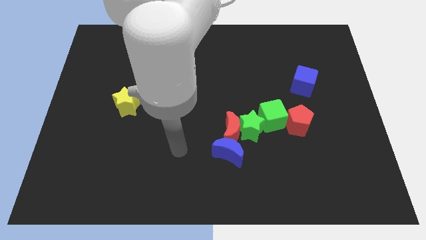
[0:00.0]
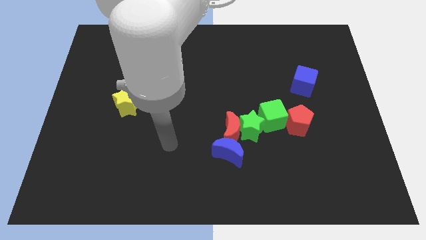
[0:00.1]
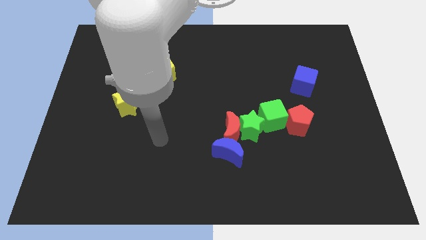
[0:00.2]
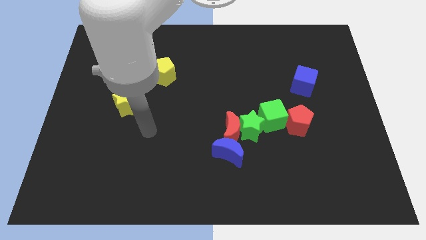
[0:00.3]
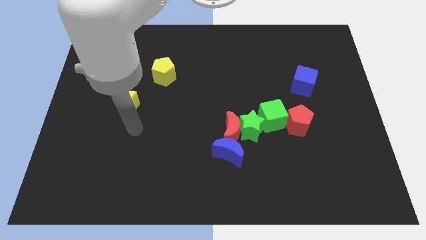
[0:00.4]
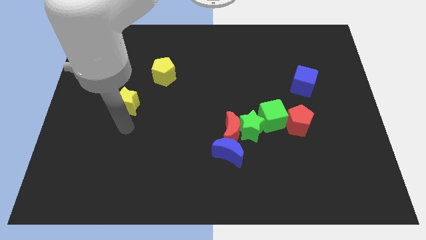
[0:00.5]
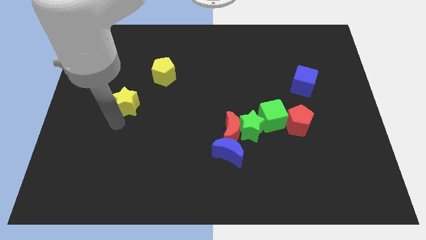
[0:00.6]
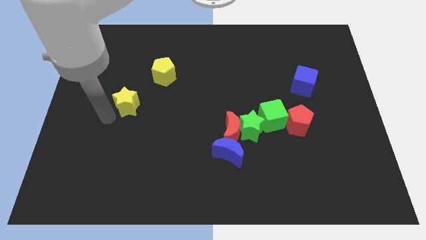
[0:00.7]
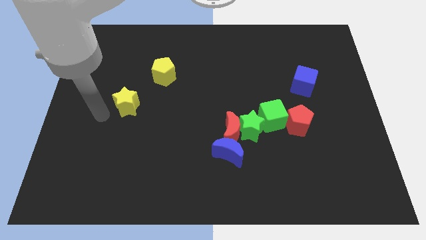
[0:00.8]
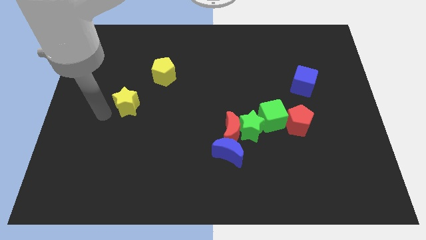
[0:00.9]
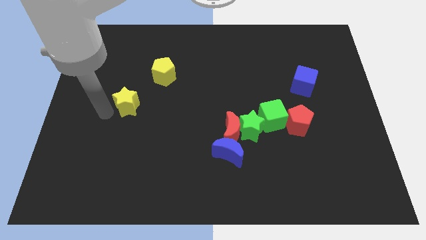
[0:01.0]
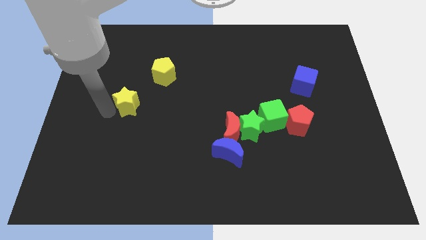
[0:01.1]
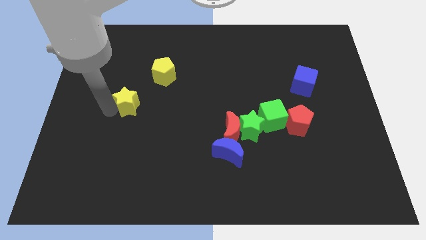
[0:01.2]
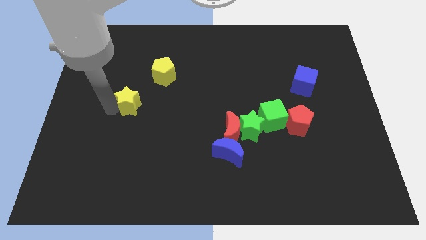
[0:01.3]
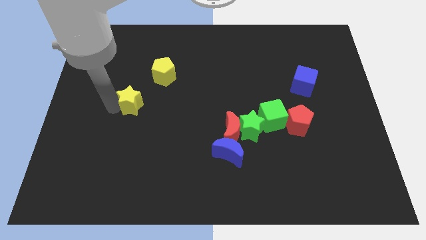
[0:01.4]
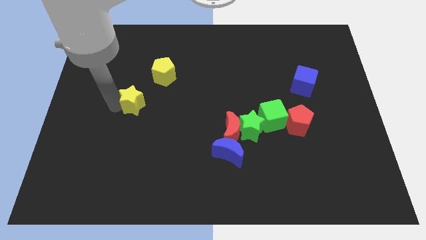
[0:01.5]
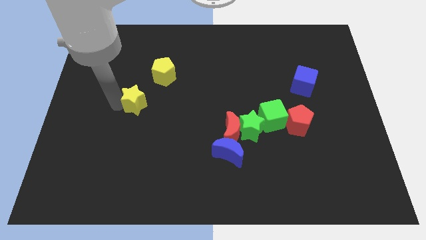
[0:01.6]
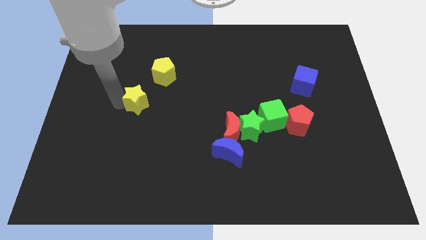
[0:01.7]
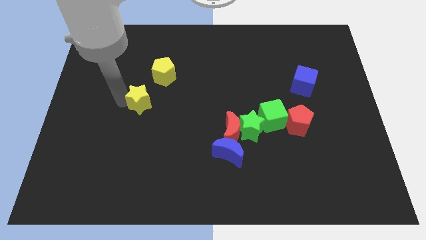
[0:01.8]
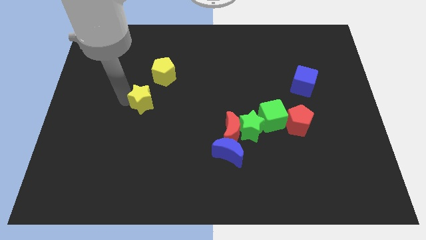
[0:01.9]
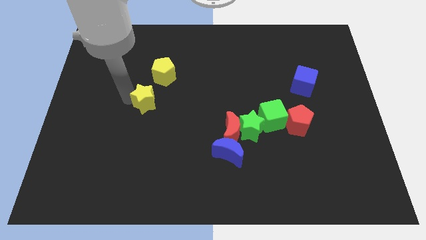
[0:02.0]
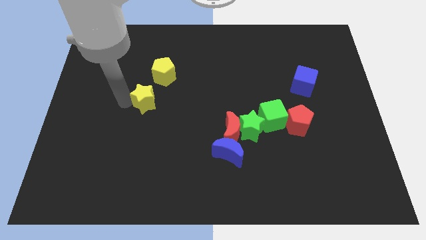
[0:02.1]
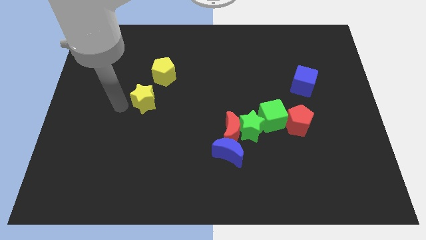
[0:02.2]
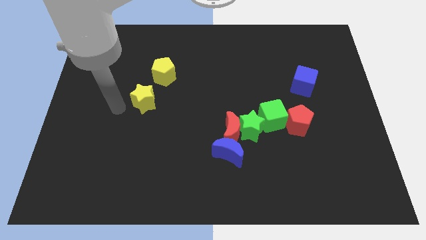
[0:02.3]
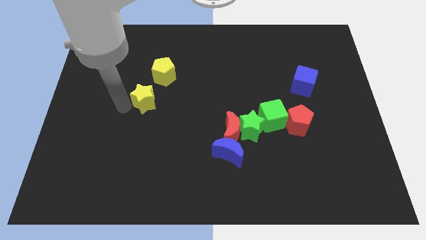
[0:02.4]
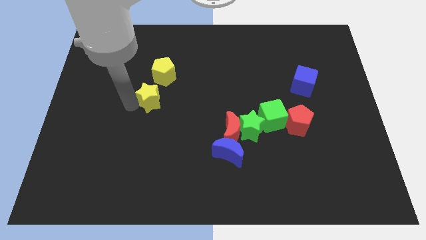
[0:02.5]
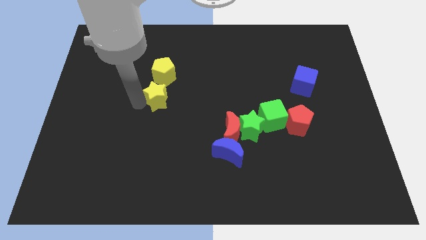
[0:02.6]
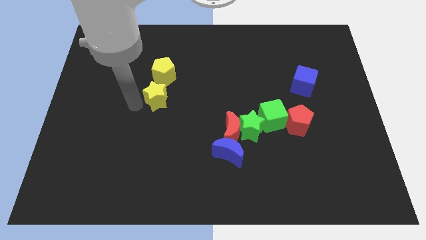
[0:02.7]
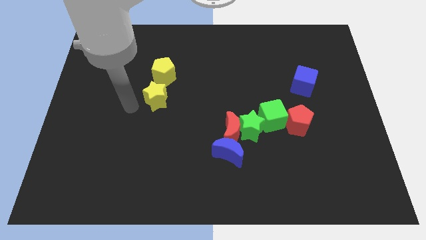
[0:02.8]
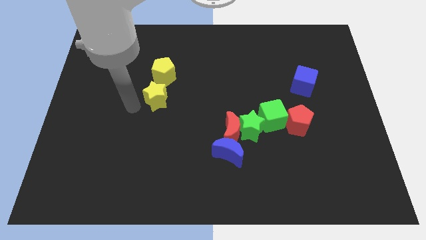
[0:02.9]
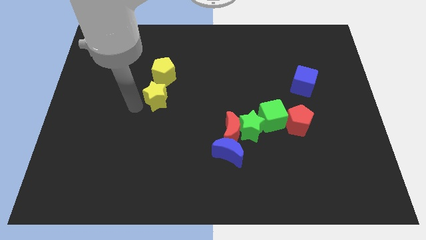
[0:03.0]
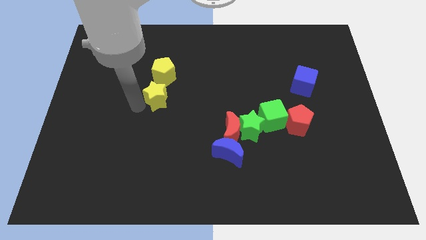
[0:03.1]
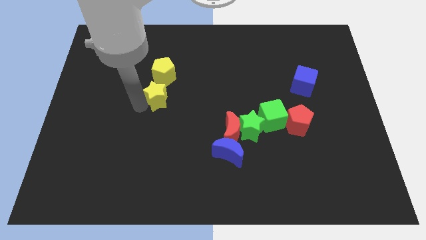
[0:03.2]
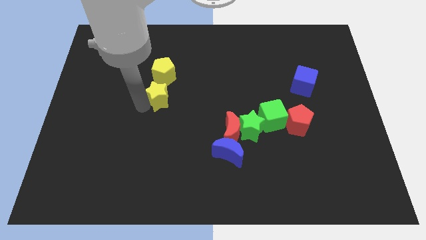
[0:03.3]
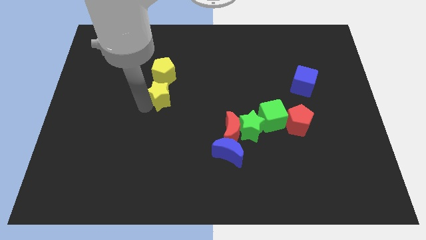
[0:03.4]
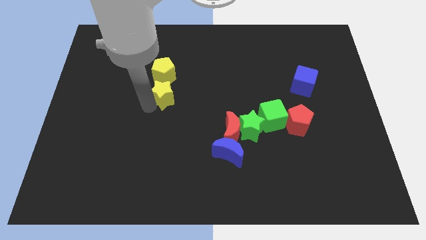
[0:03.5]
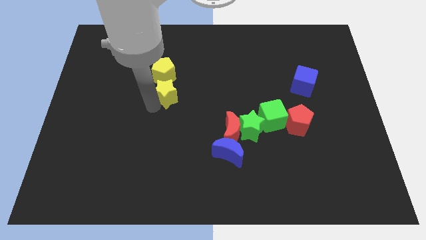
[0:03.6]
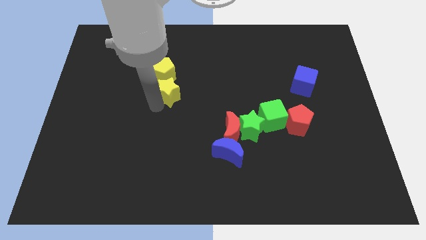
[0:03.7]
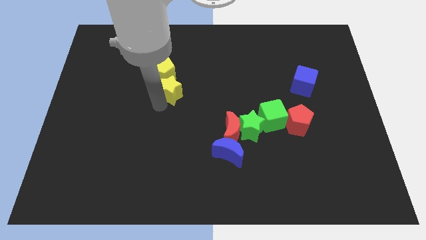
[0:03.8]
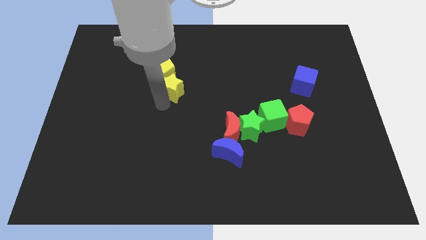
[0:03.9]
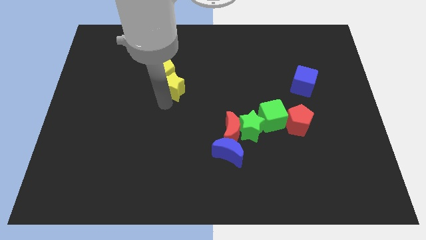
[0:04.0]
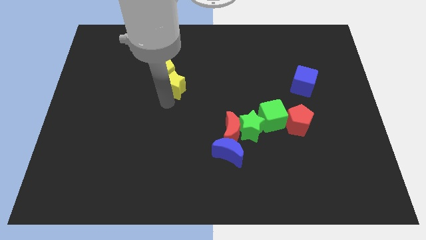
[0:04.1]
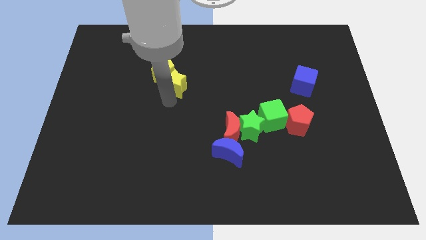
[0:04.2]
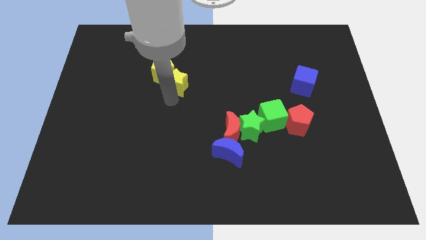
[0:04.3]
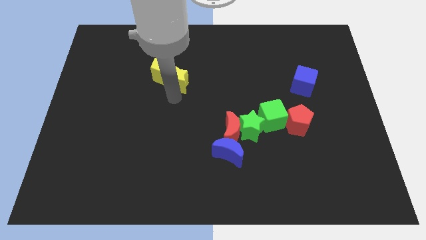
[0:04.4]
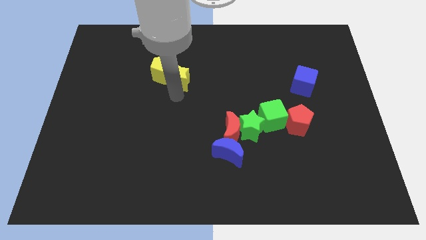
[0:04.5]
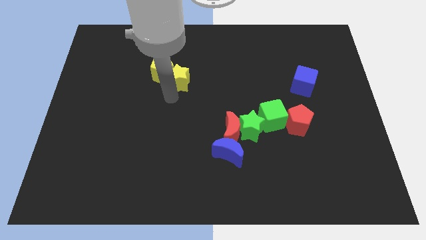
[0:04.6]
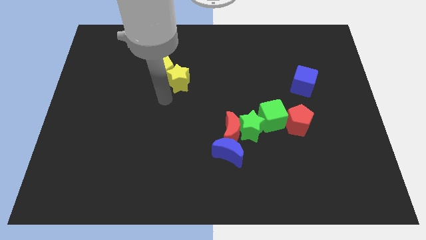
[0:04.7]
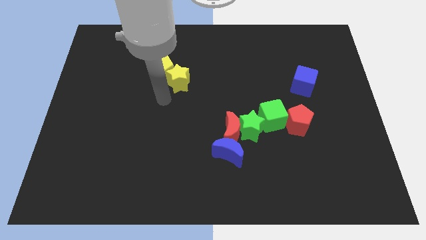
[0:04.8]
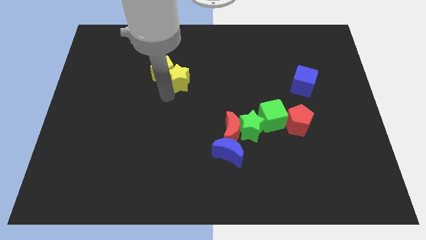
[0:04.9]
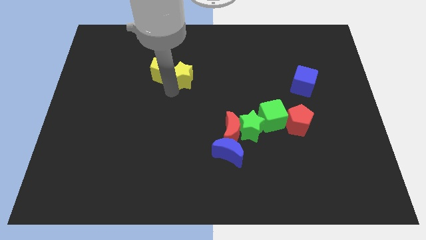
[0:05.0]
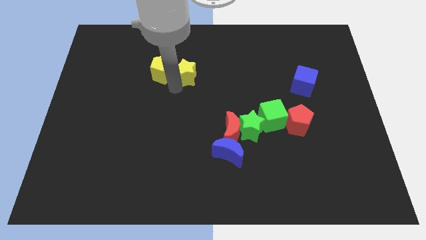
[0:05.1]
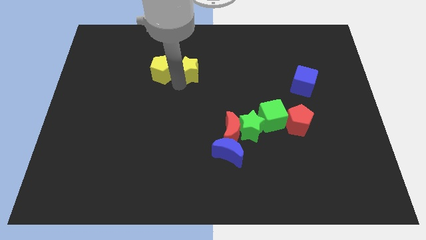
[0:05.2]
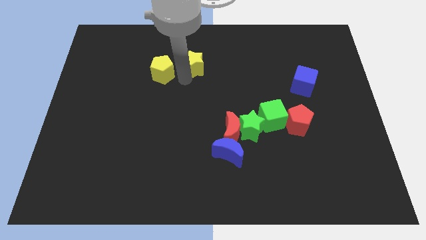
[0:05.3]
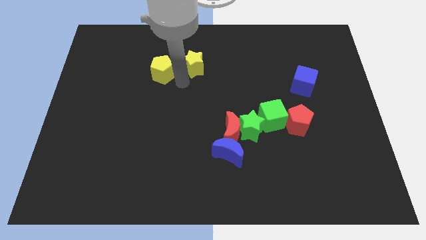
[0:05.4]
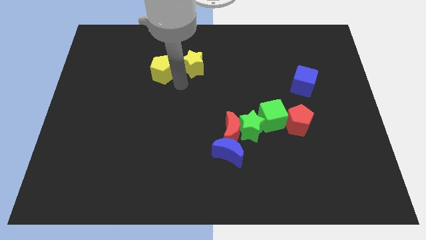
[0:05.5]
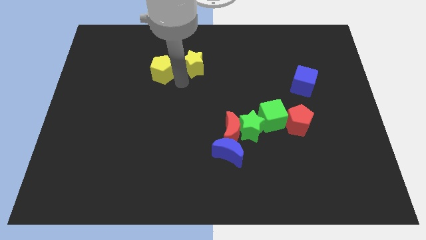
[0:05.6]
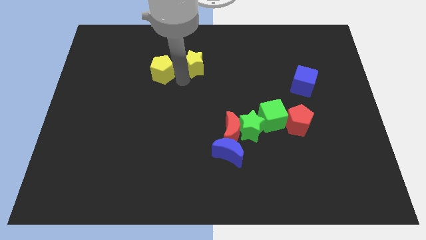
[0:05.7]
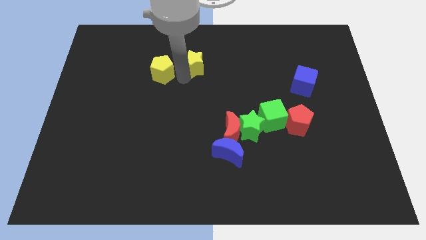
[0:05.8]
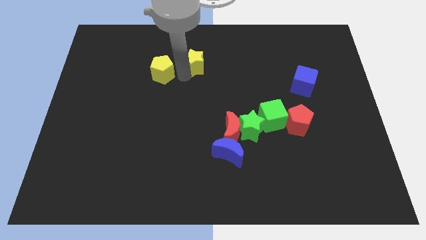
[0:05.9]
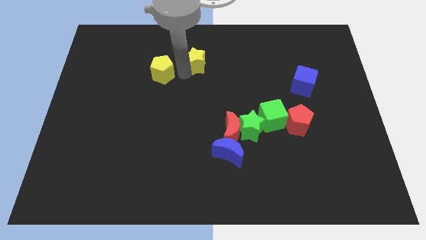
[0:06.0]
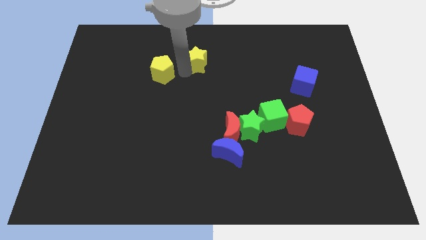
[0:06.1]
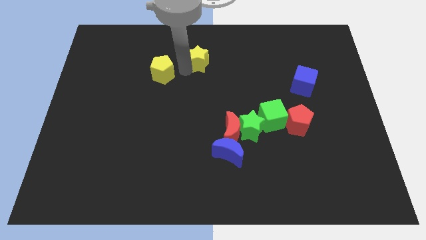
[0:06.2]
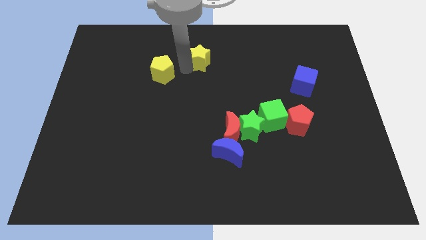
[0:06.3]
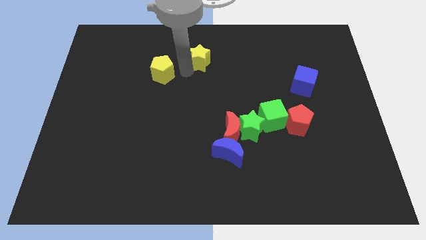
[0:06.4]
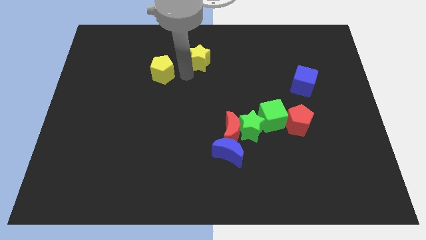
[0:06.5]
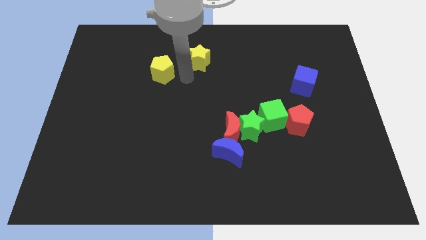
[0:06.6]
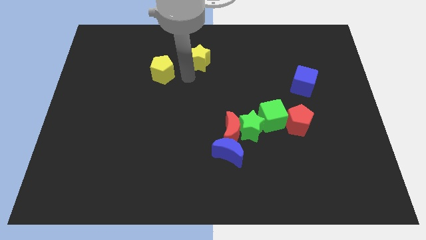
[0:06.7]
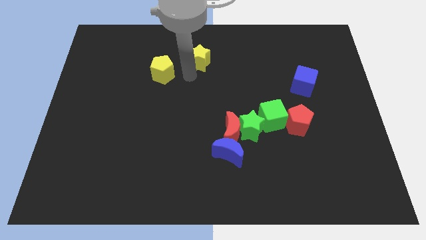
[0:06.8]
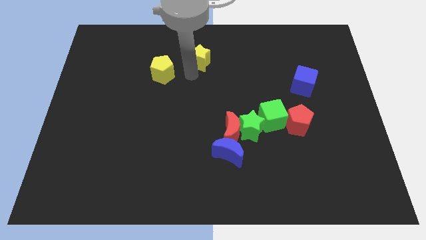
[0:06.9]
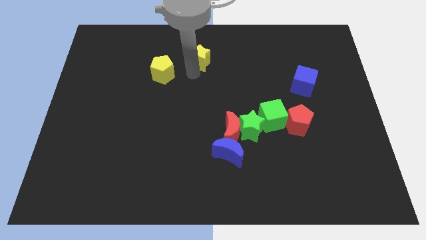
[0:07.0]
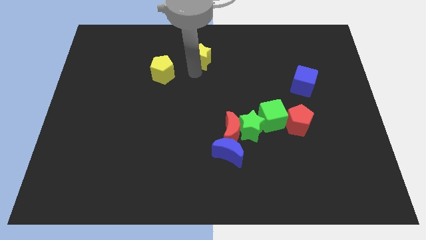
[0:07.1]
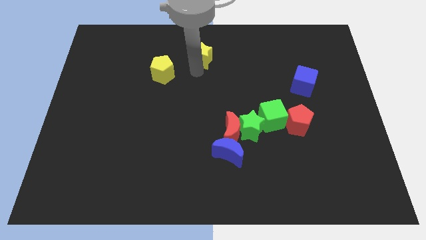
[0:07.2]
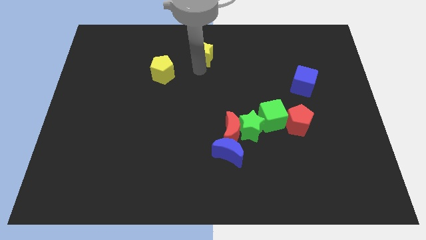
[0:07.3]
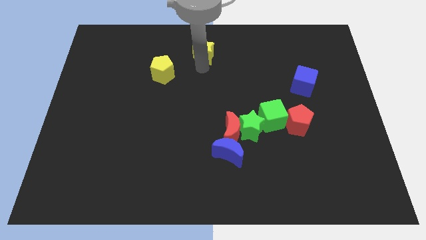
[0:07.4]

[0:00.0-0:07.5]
move the yellow star to the top
